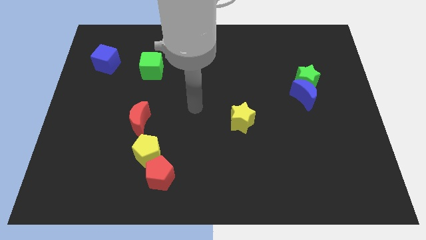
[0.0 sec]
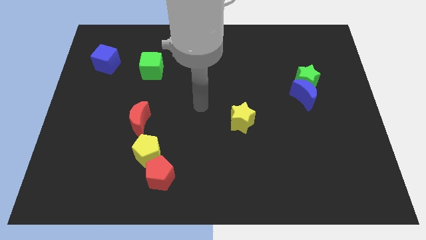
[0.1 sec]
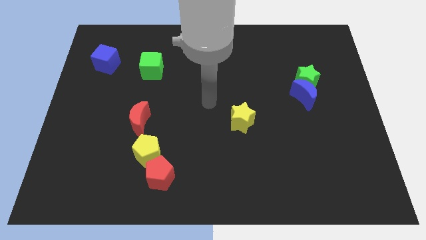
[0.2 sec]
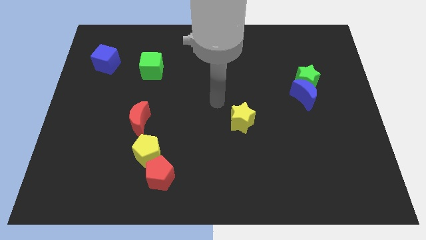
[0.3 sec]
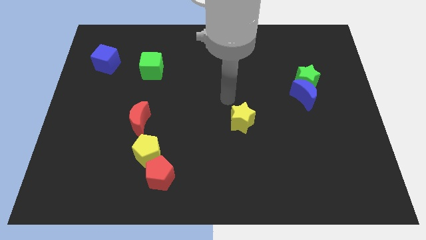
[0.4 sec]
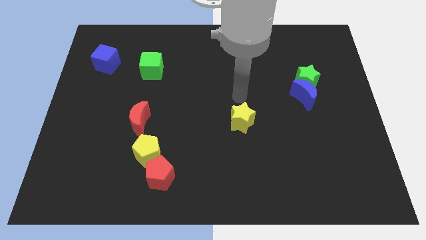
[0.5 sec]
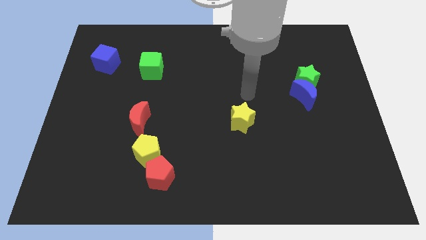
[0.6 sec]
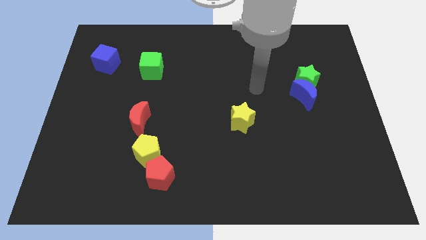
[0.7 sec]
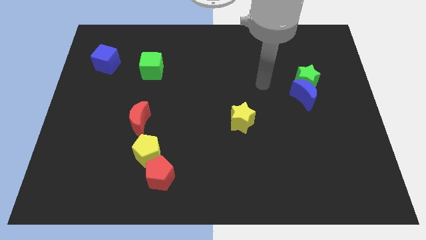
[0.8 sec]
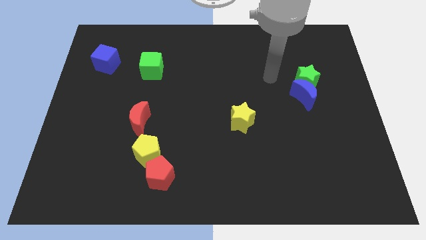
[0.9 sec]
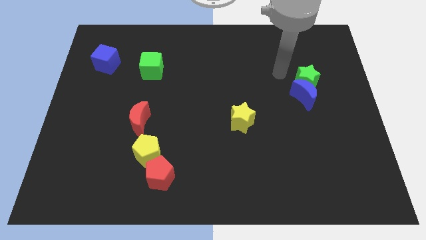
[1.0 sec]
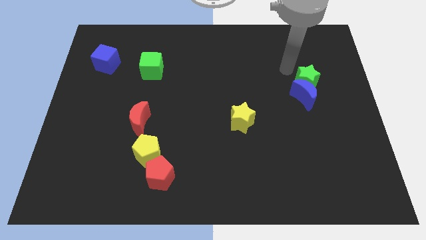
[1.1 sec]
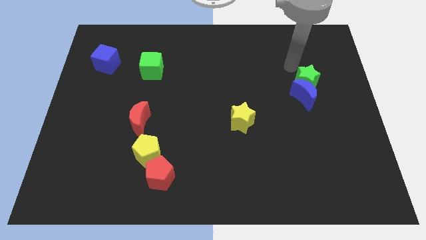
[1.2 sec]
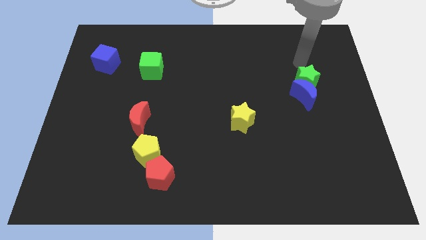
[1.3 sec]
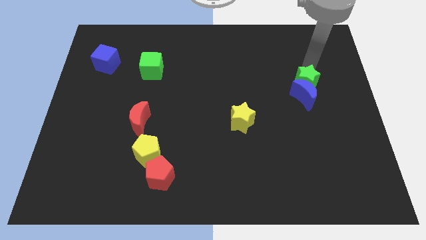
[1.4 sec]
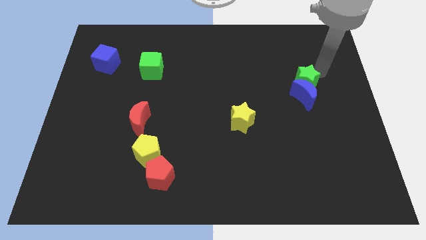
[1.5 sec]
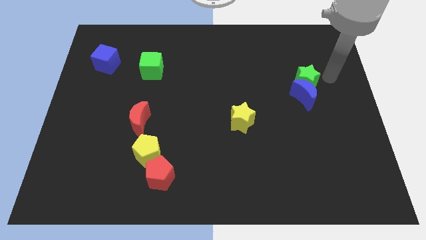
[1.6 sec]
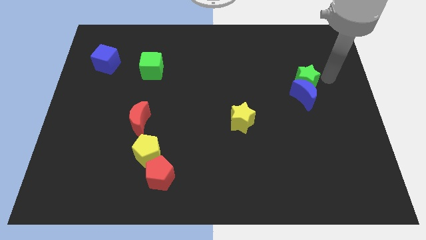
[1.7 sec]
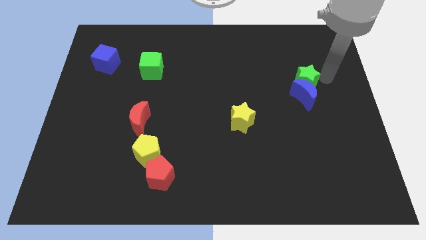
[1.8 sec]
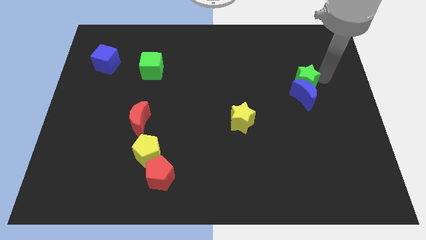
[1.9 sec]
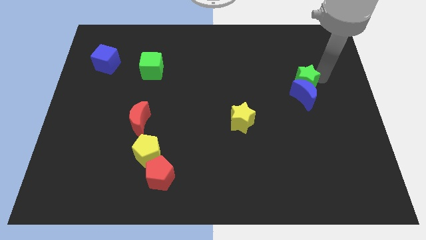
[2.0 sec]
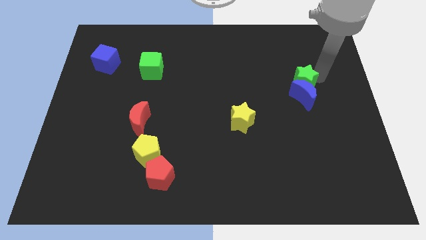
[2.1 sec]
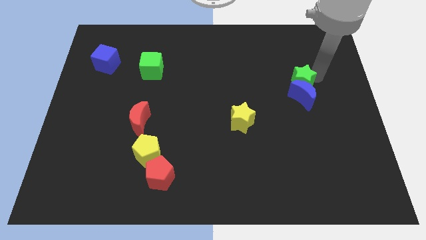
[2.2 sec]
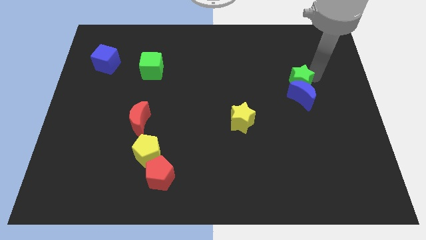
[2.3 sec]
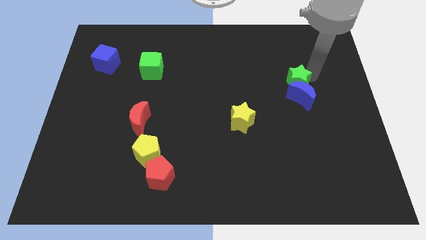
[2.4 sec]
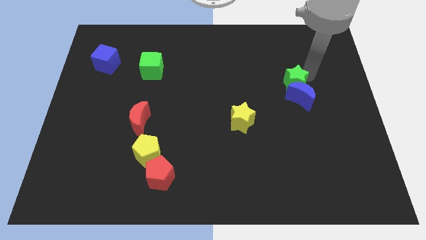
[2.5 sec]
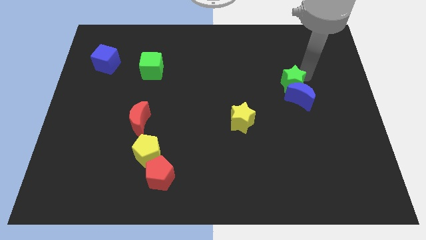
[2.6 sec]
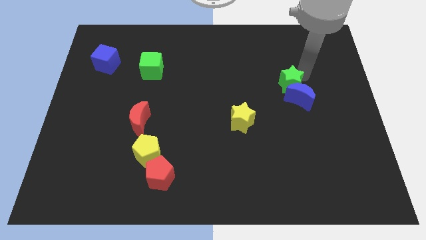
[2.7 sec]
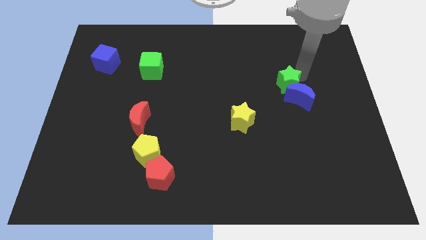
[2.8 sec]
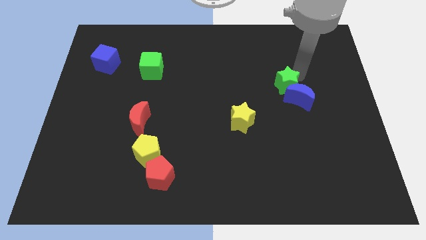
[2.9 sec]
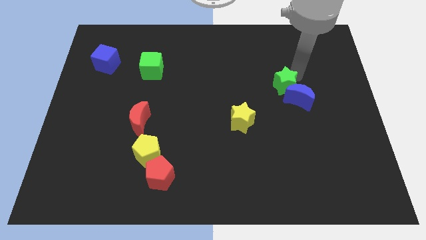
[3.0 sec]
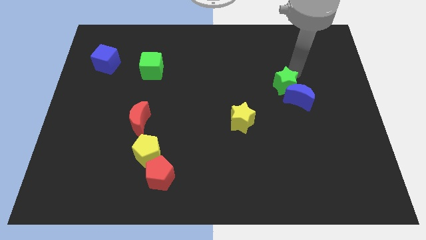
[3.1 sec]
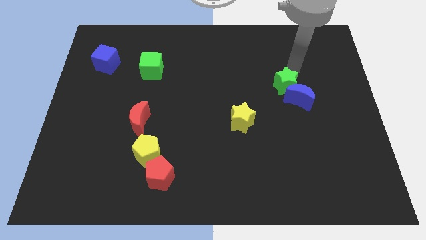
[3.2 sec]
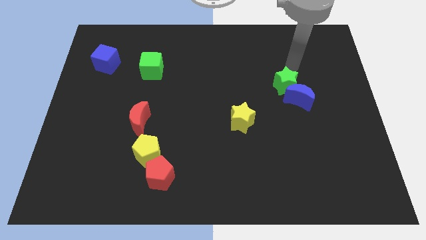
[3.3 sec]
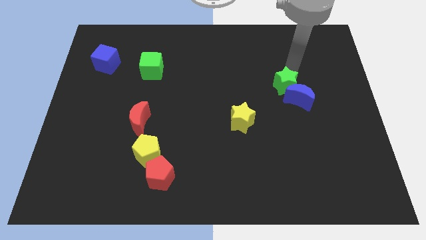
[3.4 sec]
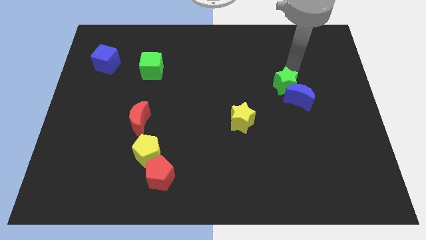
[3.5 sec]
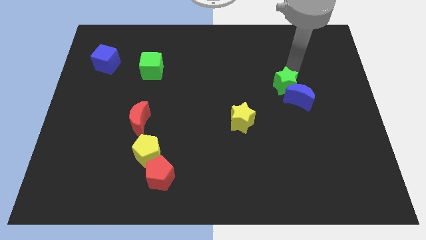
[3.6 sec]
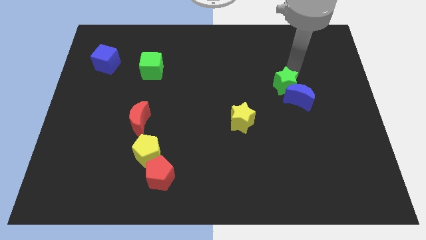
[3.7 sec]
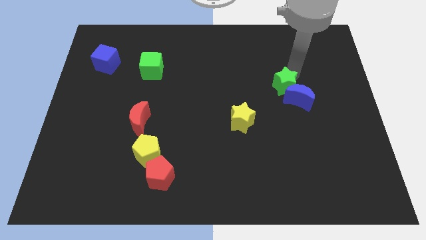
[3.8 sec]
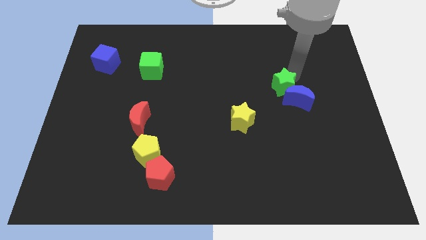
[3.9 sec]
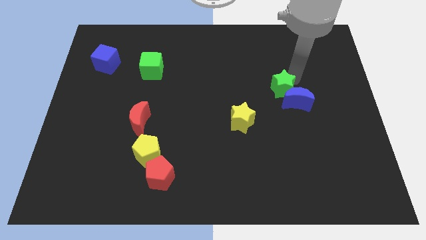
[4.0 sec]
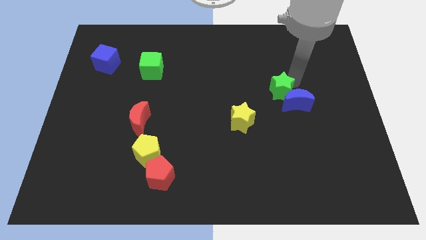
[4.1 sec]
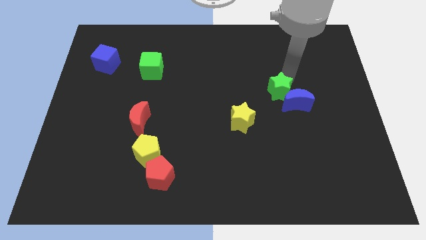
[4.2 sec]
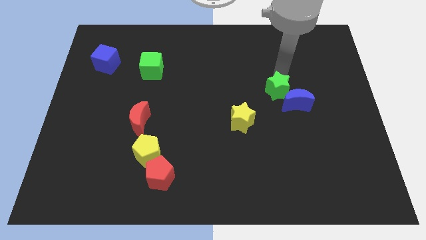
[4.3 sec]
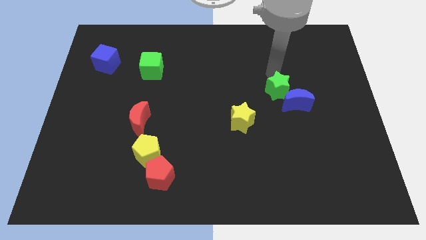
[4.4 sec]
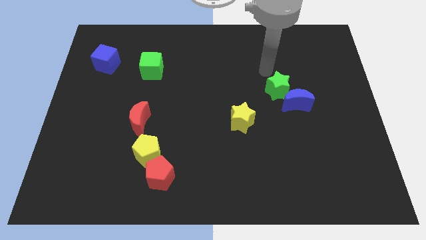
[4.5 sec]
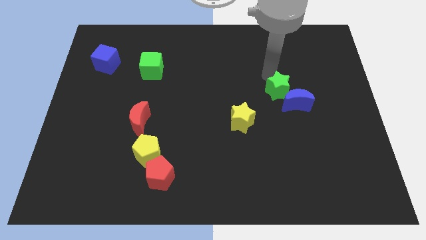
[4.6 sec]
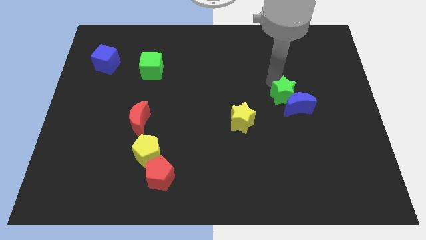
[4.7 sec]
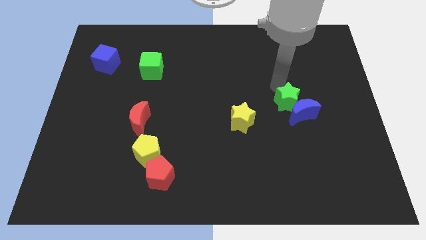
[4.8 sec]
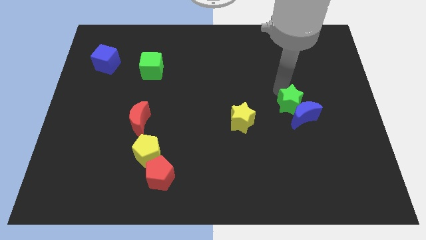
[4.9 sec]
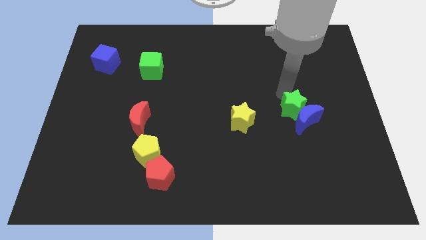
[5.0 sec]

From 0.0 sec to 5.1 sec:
slightly slide the green star down

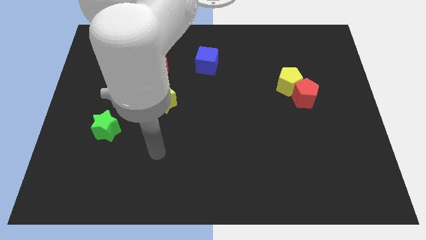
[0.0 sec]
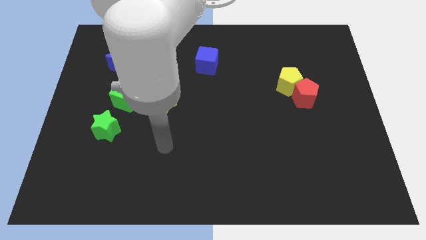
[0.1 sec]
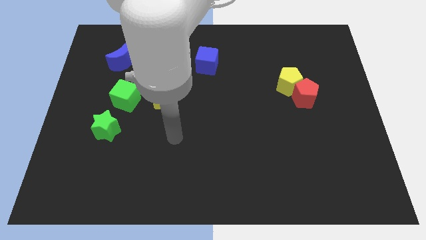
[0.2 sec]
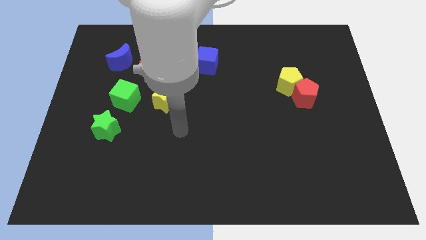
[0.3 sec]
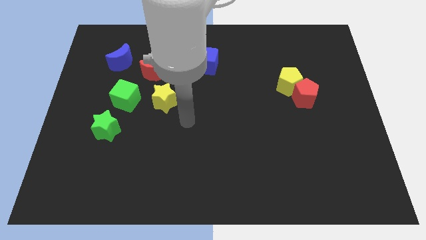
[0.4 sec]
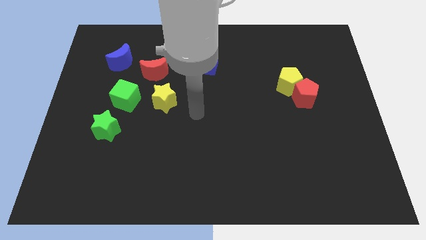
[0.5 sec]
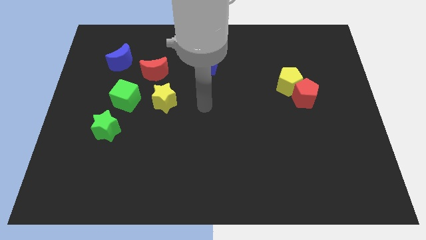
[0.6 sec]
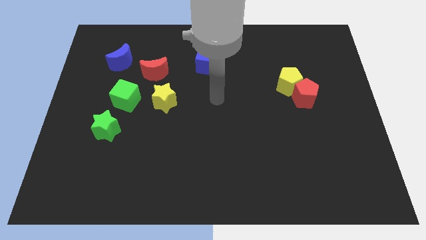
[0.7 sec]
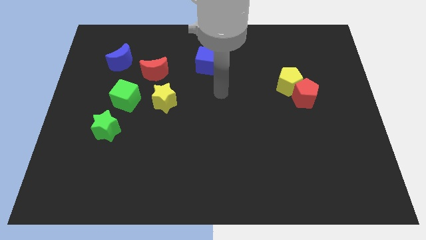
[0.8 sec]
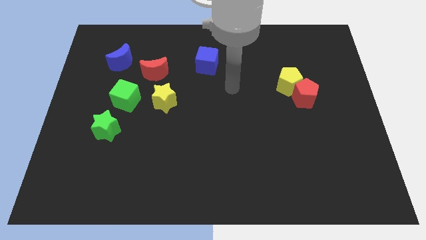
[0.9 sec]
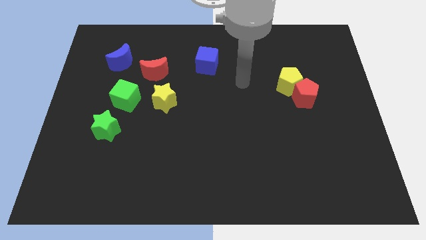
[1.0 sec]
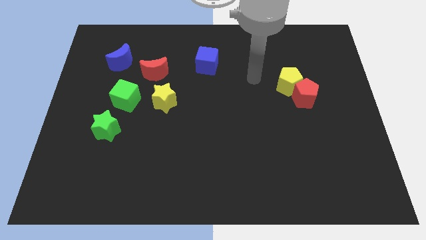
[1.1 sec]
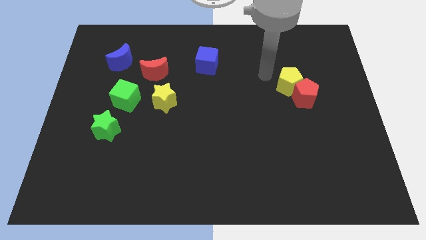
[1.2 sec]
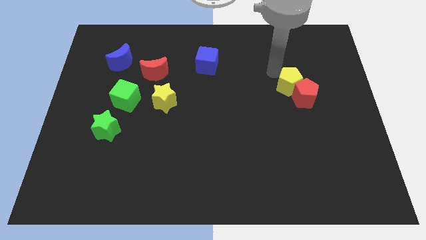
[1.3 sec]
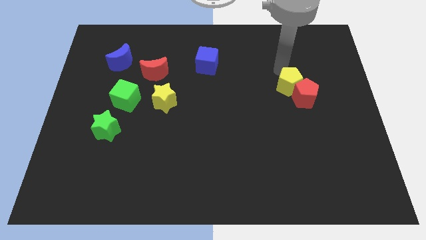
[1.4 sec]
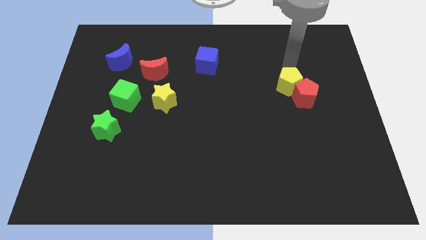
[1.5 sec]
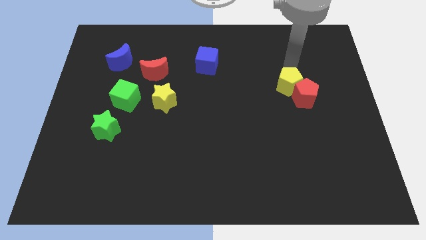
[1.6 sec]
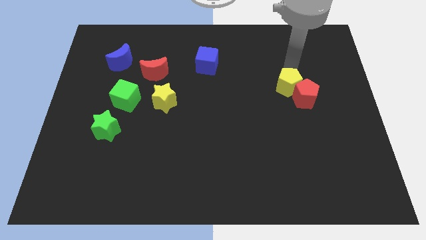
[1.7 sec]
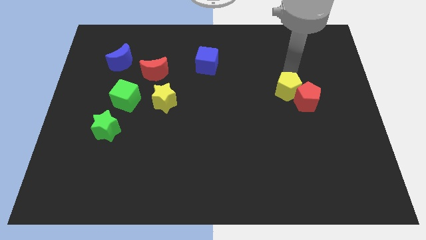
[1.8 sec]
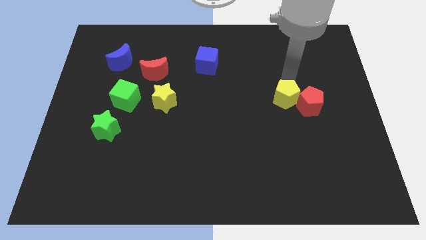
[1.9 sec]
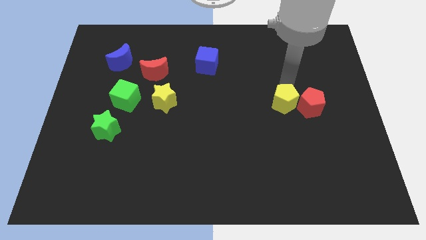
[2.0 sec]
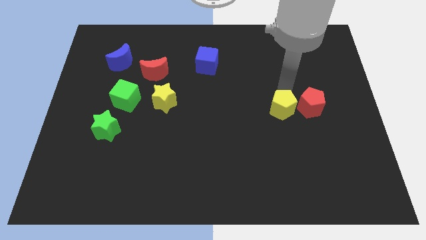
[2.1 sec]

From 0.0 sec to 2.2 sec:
slightly slide the yellow pentagon downwards
